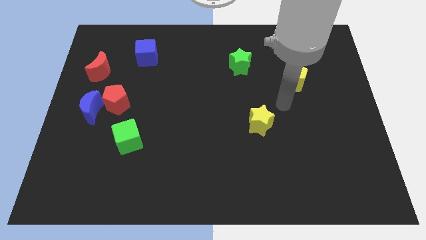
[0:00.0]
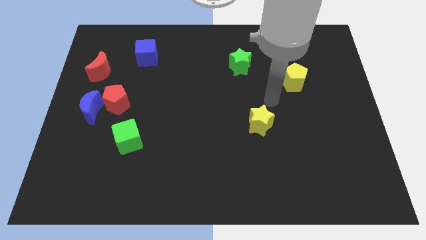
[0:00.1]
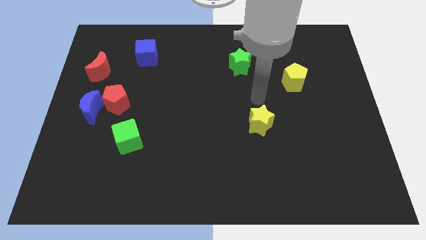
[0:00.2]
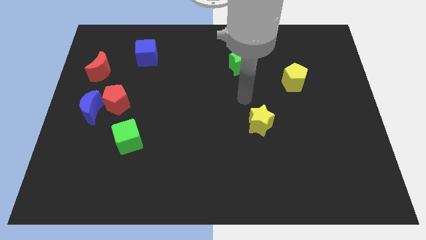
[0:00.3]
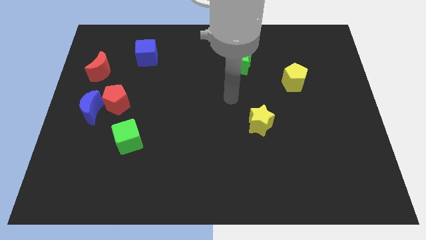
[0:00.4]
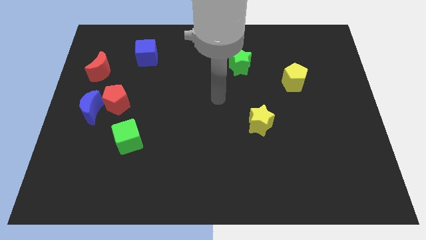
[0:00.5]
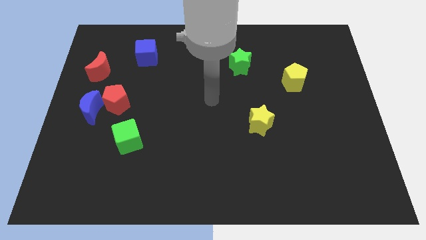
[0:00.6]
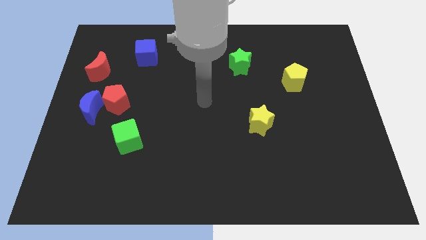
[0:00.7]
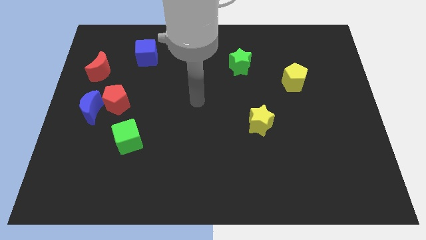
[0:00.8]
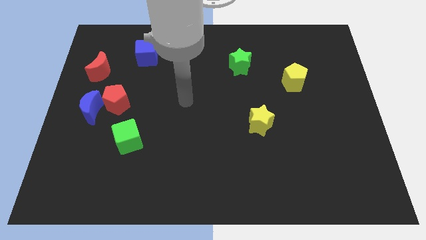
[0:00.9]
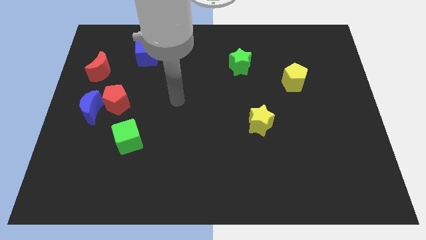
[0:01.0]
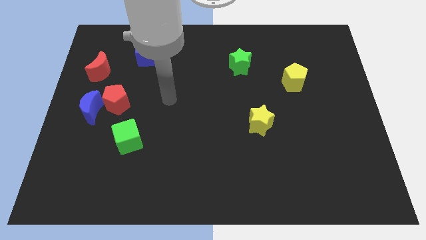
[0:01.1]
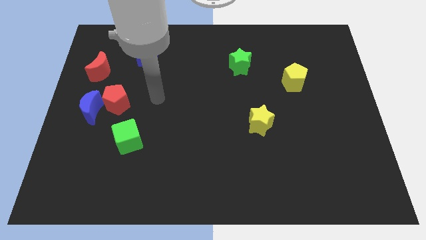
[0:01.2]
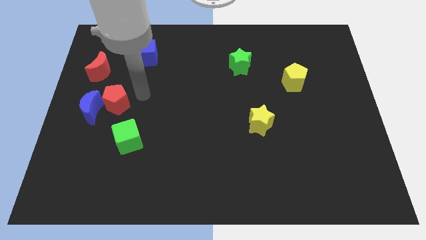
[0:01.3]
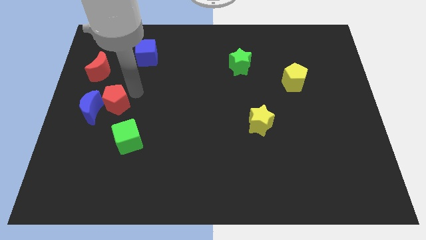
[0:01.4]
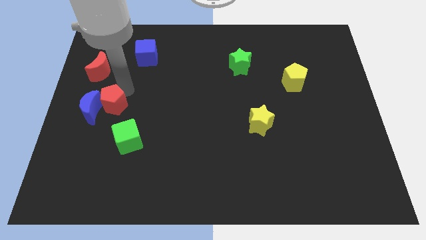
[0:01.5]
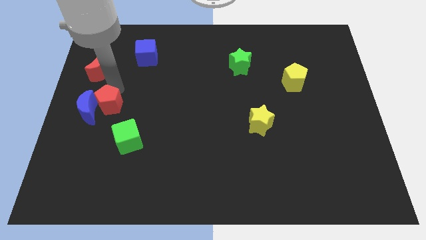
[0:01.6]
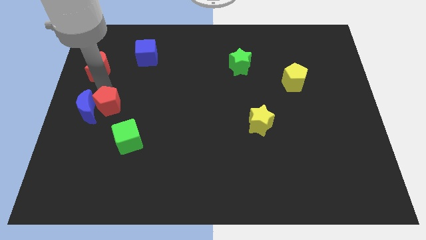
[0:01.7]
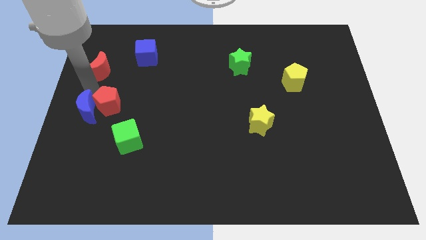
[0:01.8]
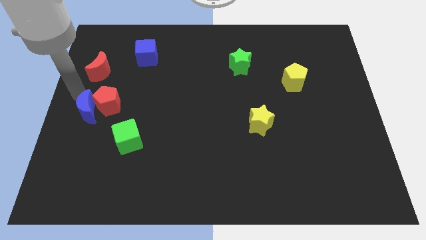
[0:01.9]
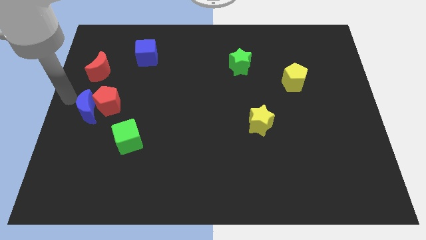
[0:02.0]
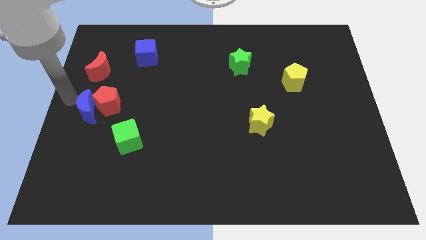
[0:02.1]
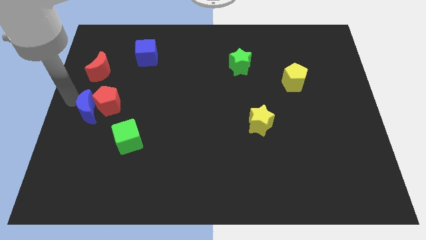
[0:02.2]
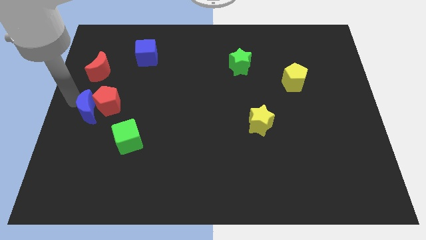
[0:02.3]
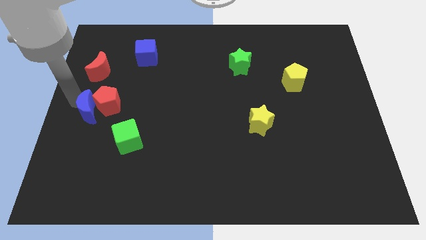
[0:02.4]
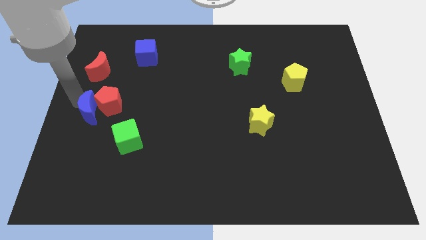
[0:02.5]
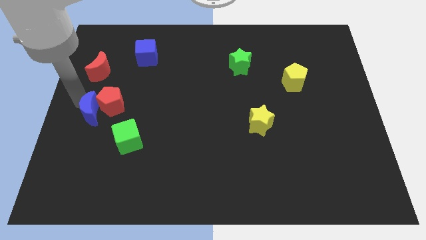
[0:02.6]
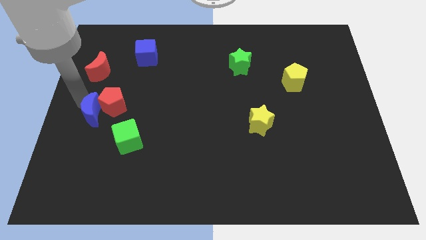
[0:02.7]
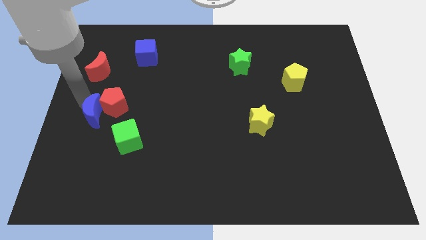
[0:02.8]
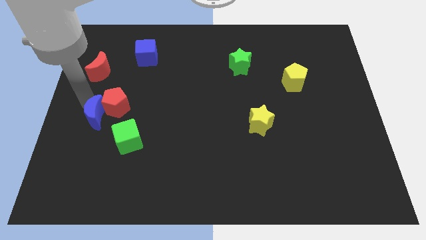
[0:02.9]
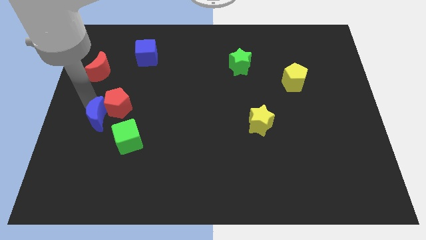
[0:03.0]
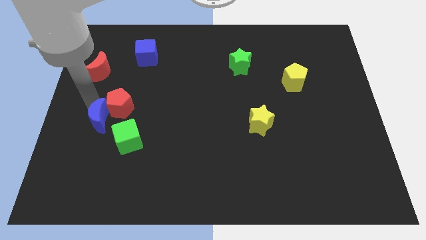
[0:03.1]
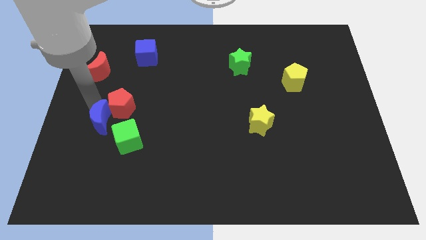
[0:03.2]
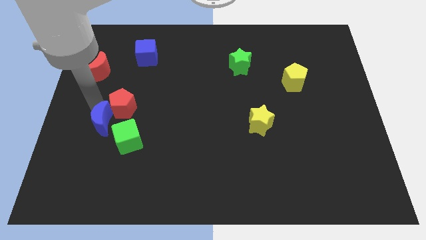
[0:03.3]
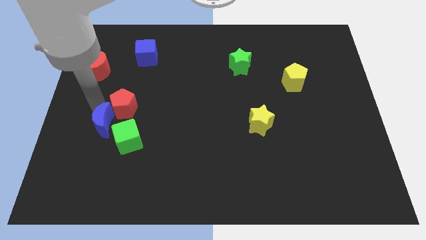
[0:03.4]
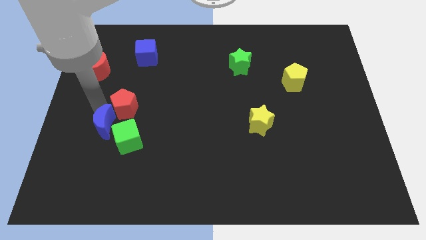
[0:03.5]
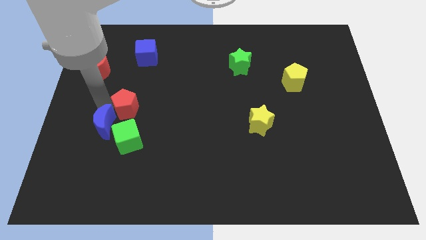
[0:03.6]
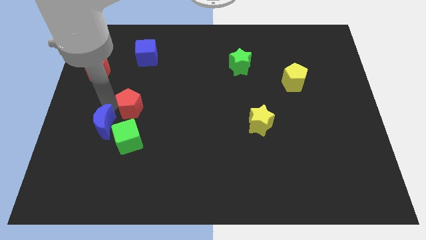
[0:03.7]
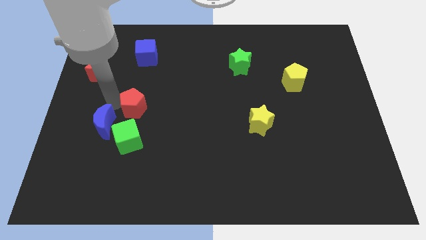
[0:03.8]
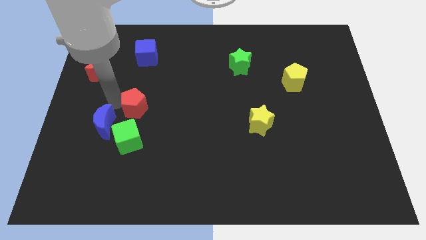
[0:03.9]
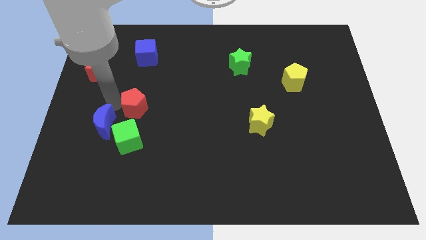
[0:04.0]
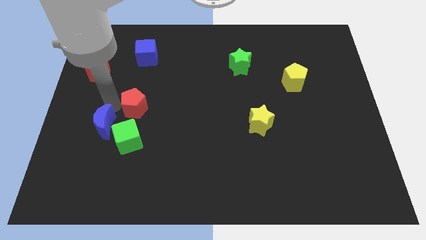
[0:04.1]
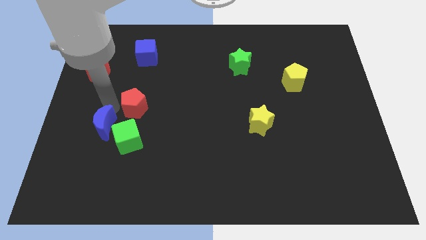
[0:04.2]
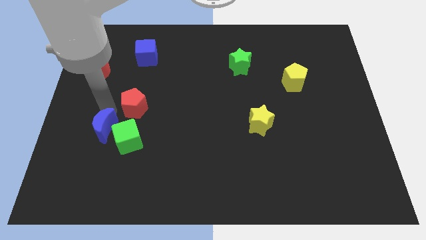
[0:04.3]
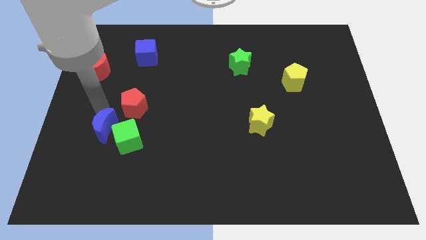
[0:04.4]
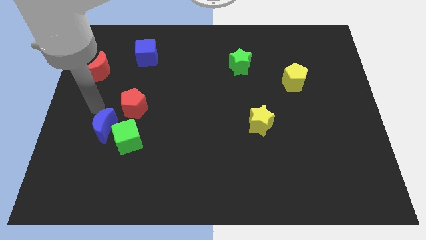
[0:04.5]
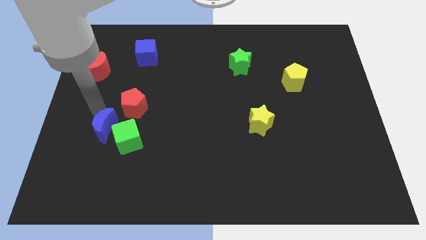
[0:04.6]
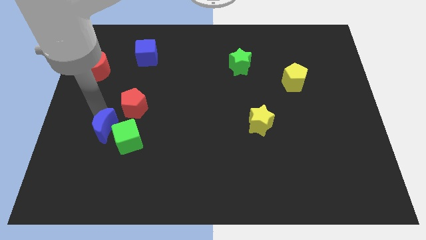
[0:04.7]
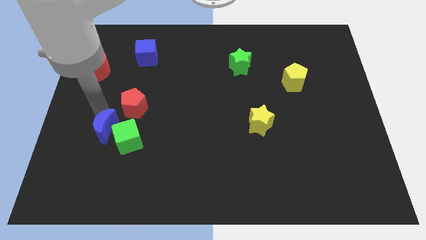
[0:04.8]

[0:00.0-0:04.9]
slightly slide the blue moon diagonally downwards and right

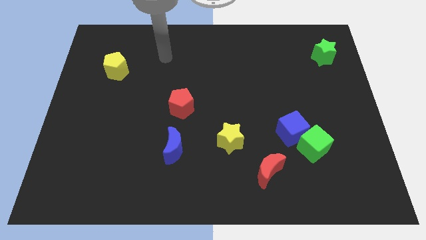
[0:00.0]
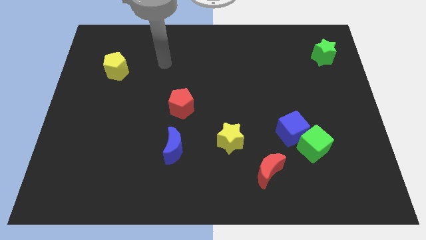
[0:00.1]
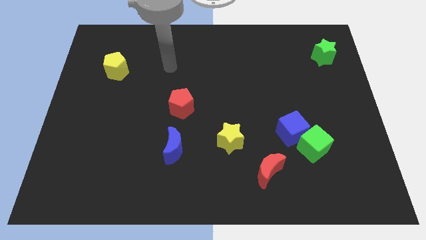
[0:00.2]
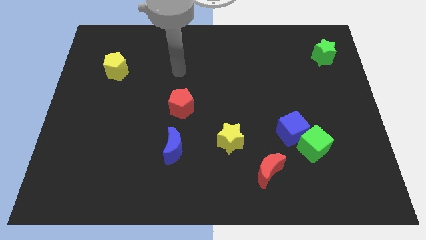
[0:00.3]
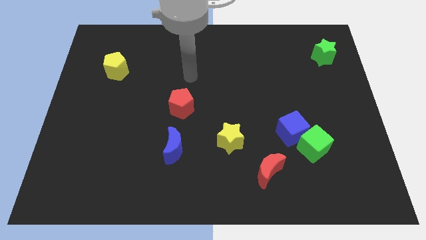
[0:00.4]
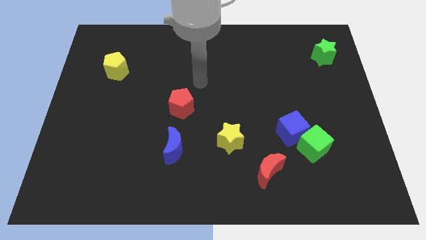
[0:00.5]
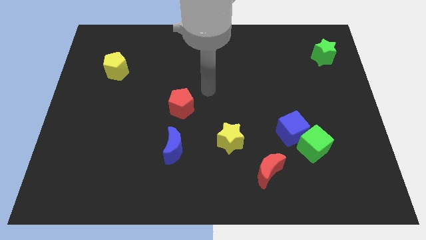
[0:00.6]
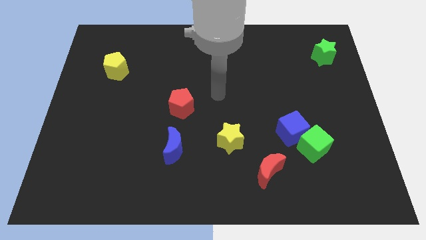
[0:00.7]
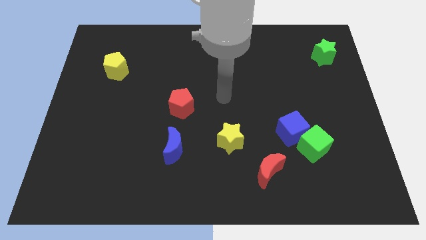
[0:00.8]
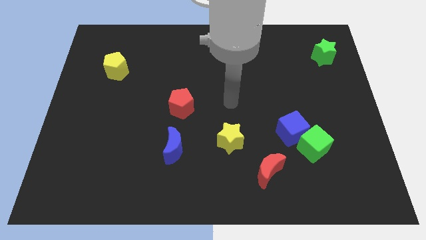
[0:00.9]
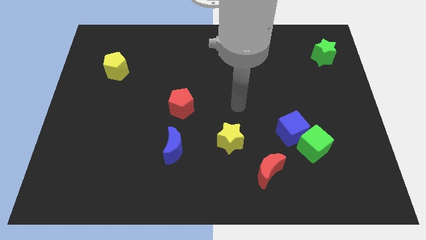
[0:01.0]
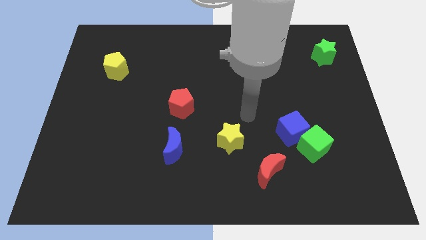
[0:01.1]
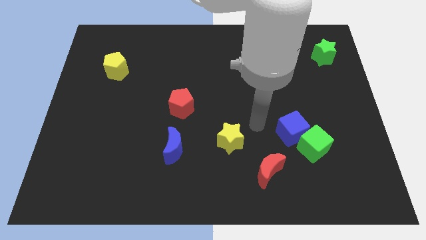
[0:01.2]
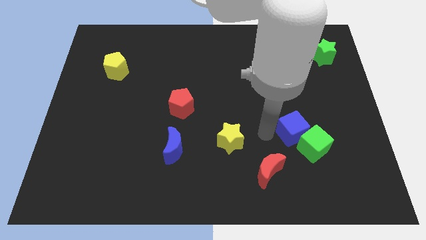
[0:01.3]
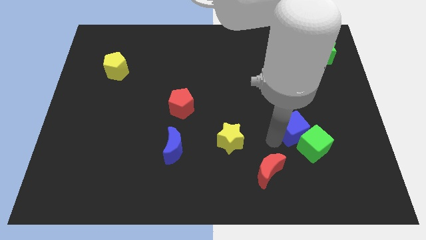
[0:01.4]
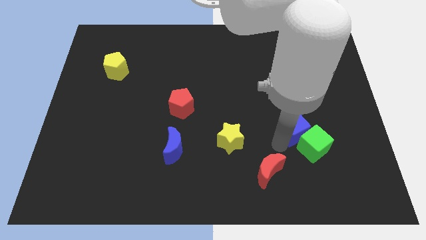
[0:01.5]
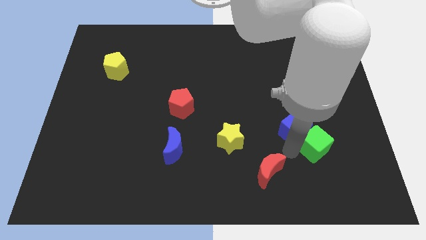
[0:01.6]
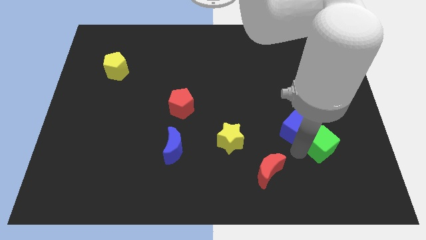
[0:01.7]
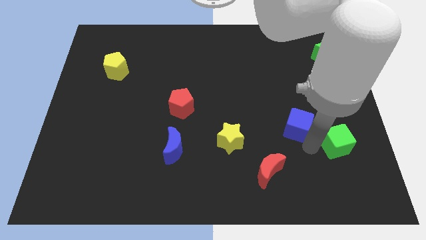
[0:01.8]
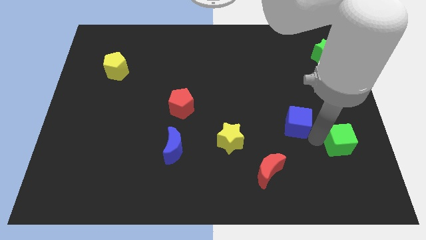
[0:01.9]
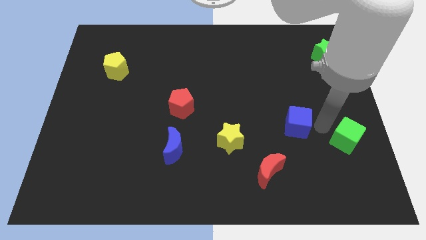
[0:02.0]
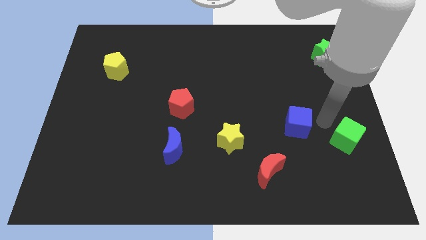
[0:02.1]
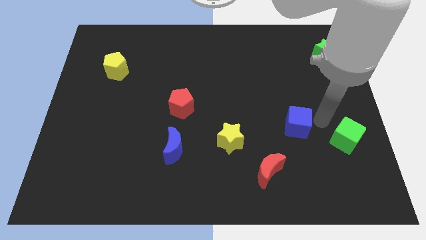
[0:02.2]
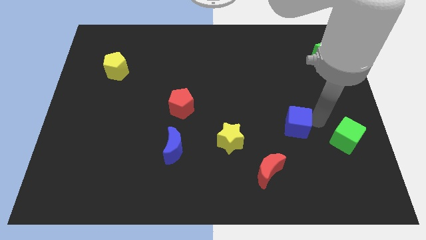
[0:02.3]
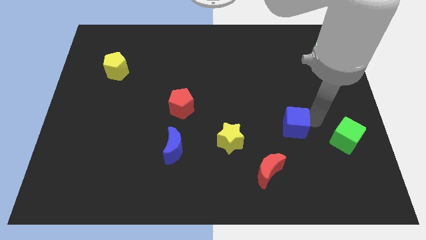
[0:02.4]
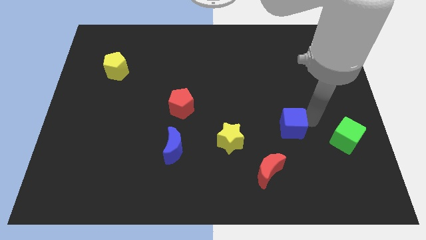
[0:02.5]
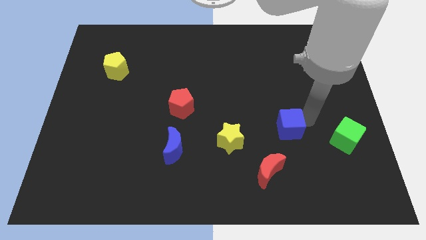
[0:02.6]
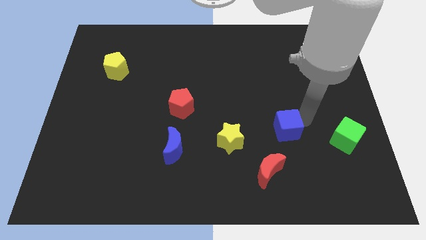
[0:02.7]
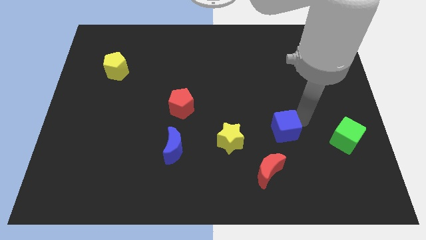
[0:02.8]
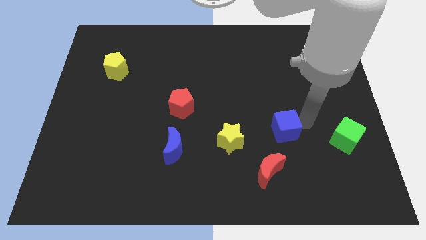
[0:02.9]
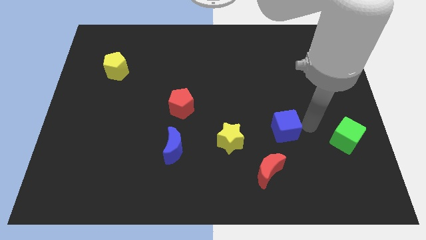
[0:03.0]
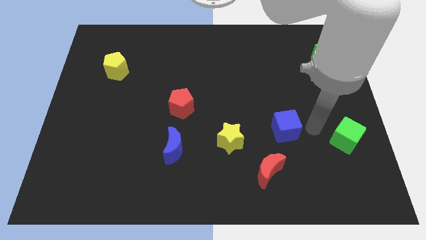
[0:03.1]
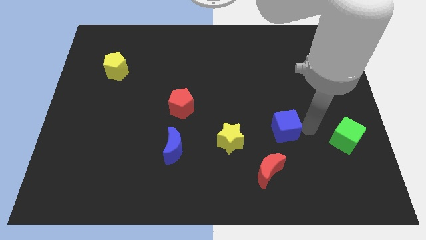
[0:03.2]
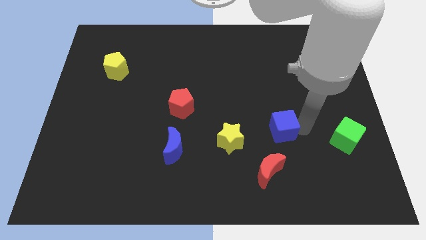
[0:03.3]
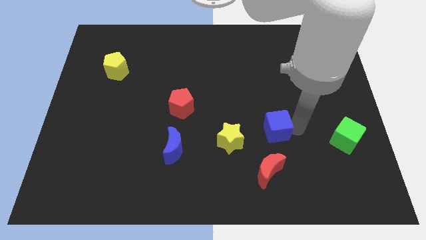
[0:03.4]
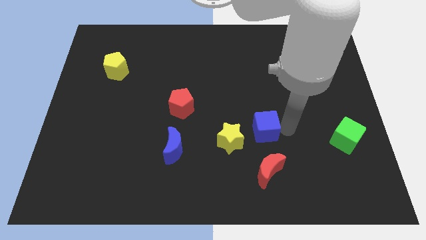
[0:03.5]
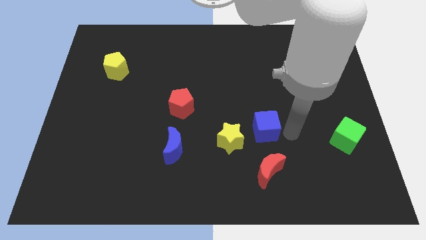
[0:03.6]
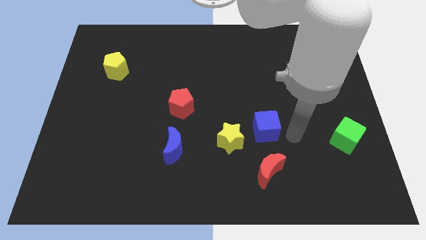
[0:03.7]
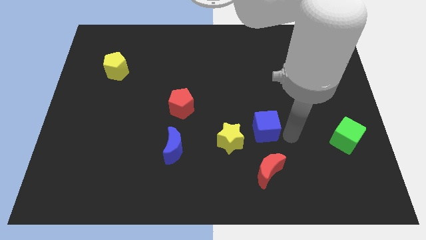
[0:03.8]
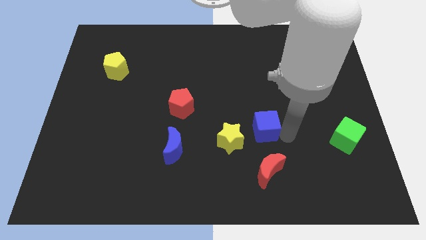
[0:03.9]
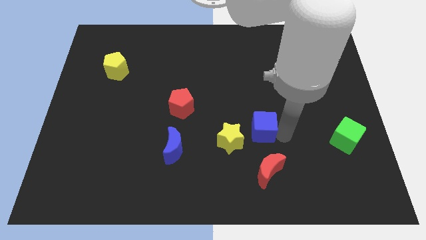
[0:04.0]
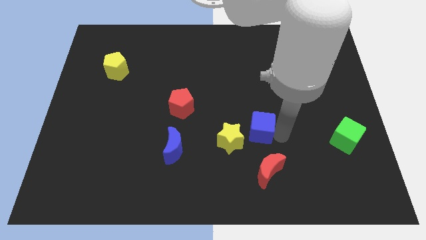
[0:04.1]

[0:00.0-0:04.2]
move the blue cube slightly to the left
